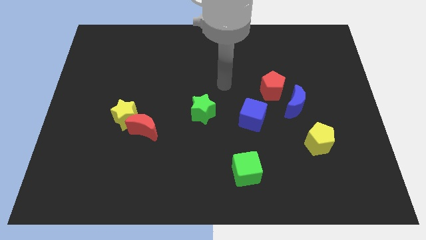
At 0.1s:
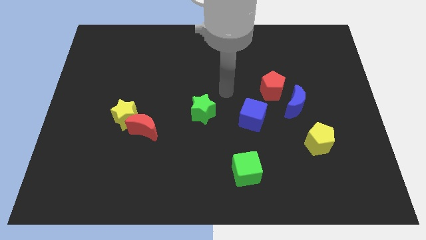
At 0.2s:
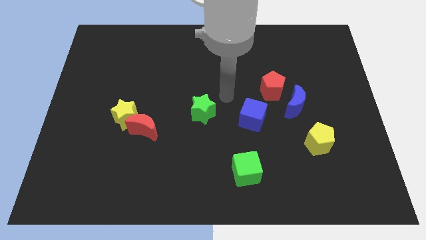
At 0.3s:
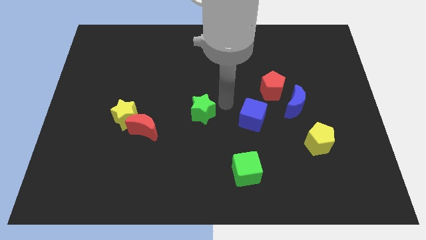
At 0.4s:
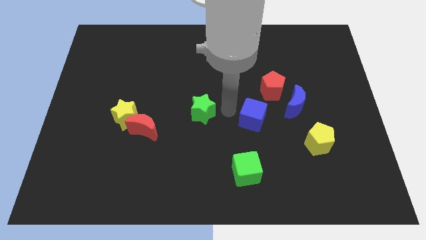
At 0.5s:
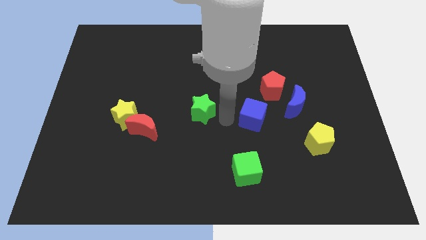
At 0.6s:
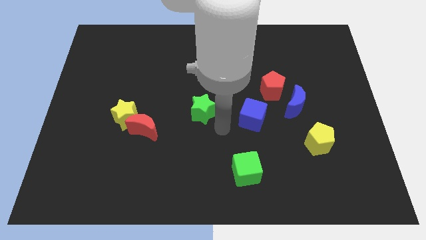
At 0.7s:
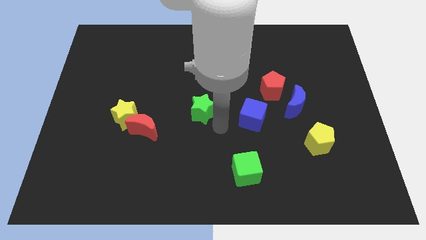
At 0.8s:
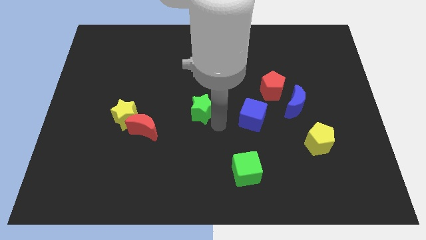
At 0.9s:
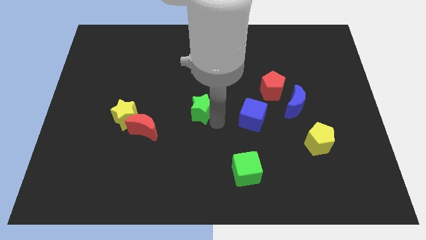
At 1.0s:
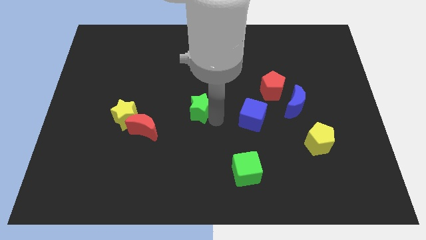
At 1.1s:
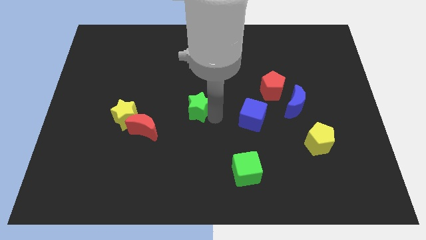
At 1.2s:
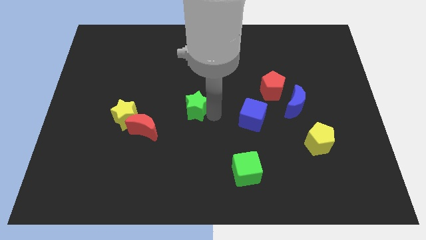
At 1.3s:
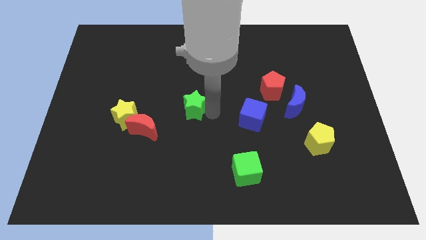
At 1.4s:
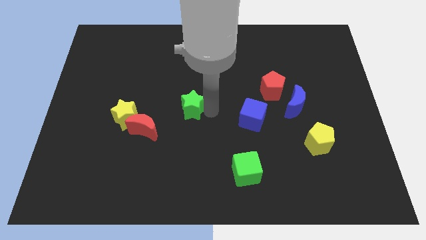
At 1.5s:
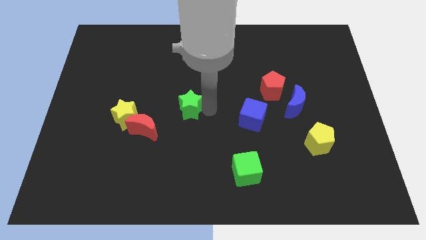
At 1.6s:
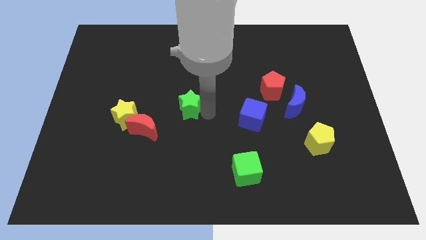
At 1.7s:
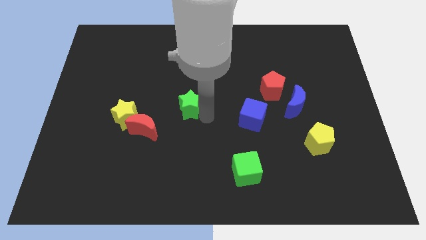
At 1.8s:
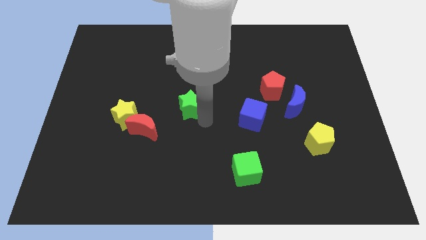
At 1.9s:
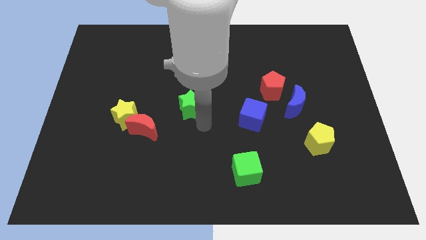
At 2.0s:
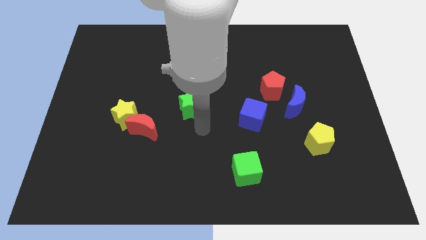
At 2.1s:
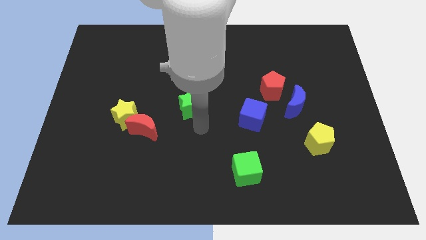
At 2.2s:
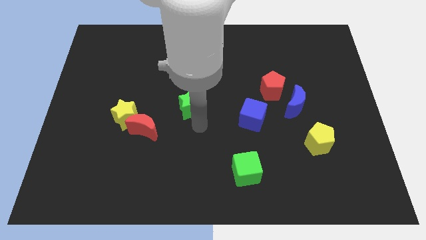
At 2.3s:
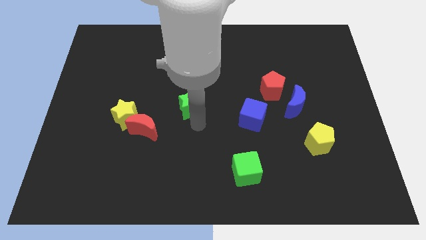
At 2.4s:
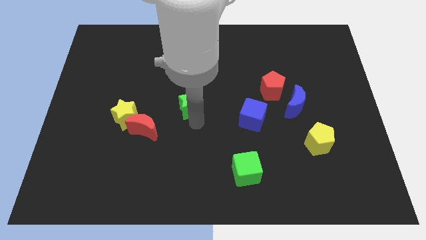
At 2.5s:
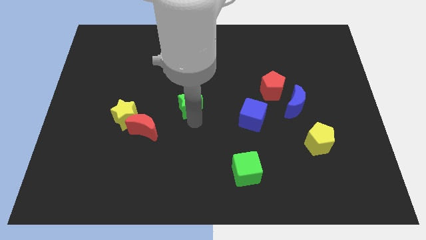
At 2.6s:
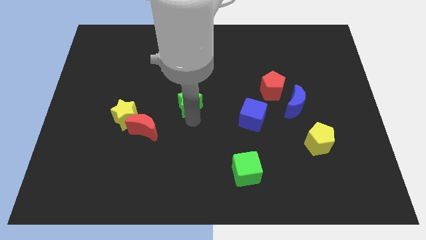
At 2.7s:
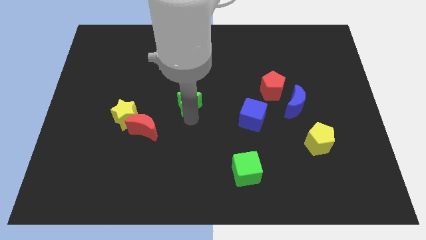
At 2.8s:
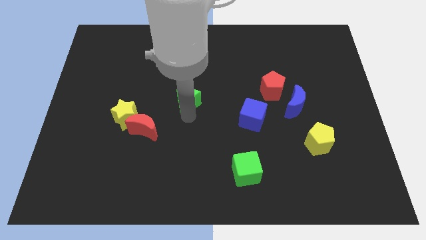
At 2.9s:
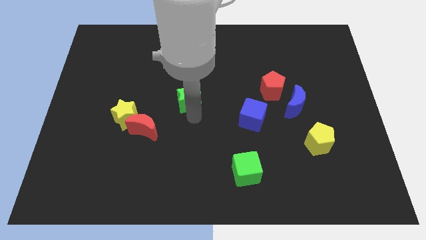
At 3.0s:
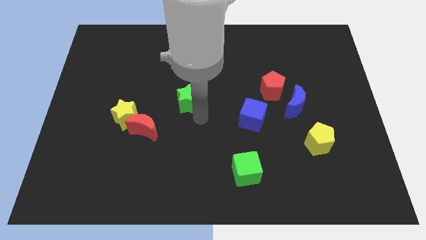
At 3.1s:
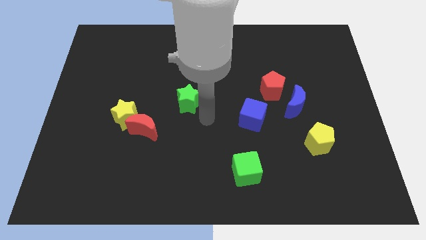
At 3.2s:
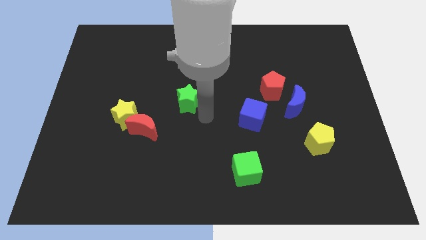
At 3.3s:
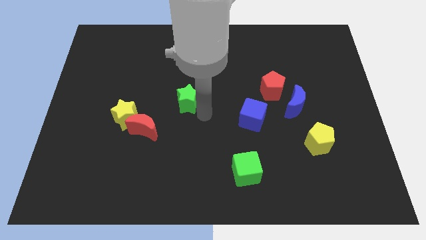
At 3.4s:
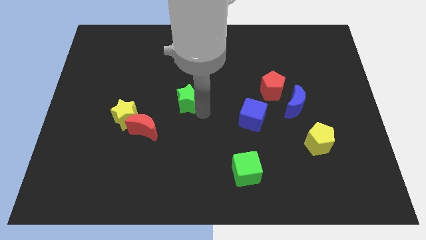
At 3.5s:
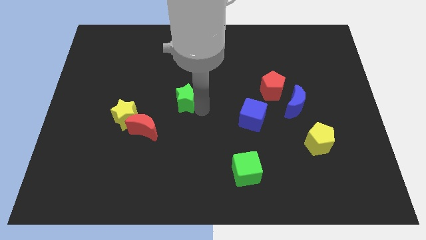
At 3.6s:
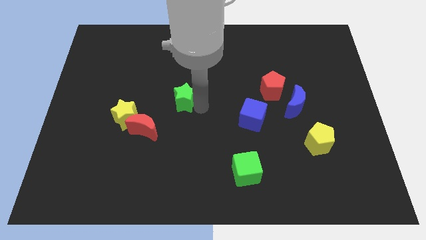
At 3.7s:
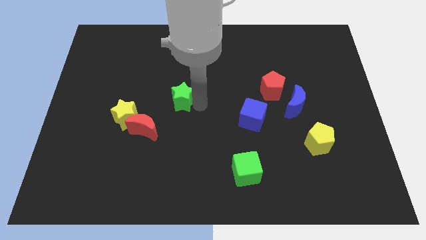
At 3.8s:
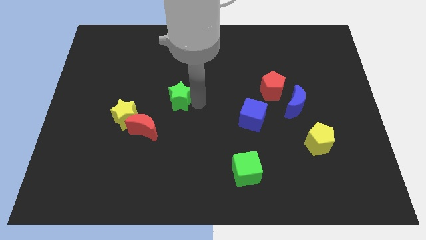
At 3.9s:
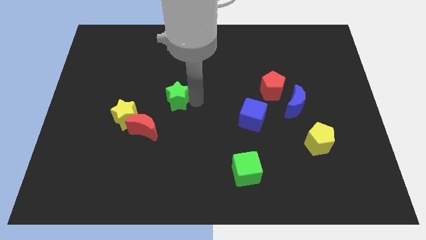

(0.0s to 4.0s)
slightly slide the green star up and left diagonally

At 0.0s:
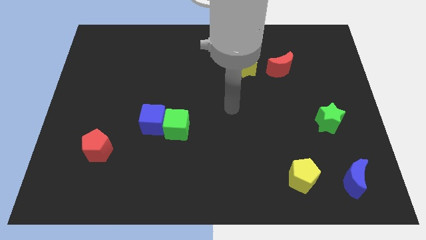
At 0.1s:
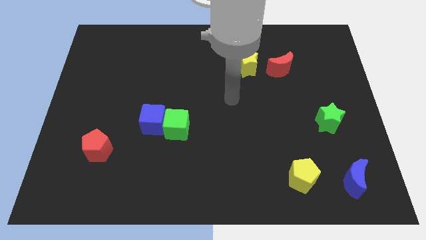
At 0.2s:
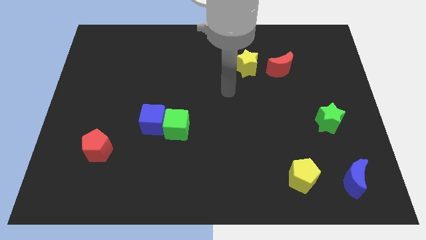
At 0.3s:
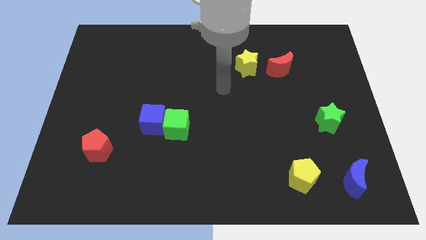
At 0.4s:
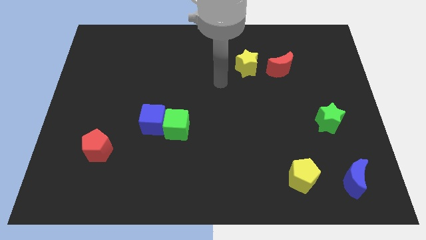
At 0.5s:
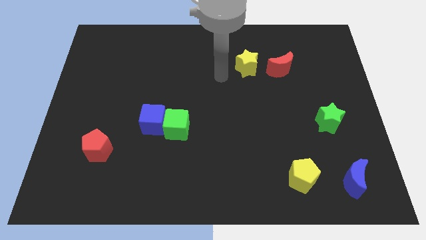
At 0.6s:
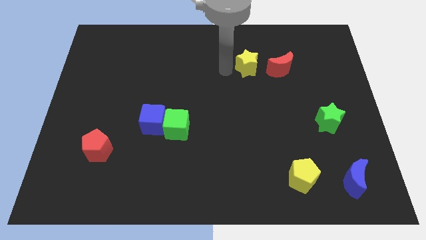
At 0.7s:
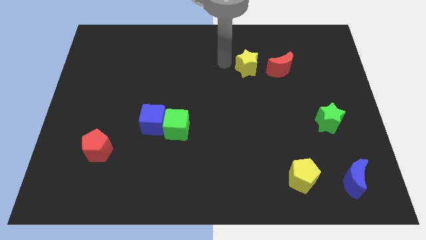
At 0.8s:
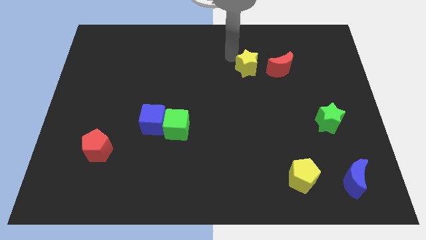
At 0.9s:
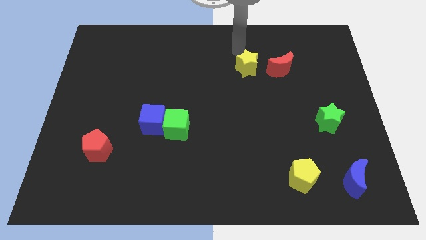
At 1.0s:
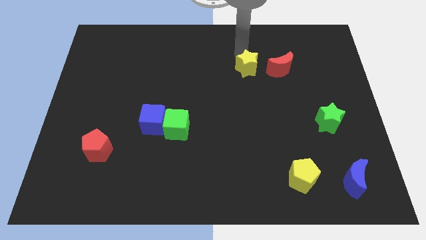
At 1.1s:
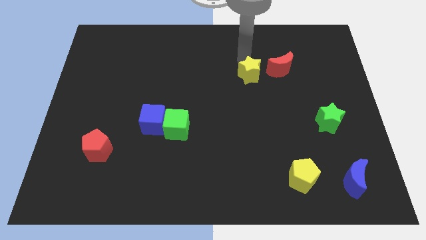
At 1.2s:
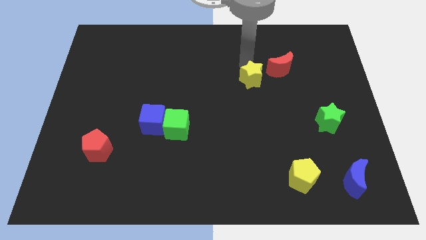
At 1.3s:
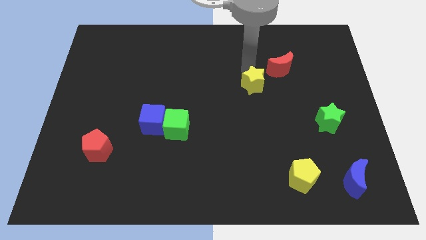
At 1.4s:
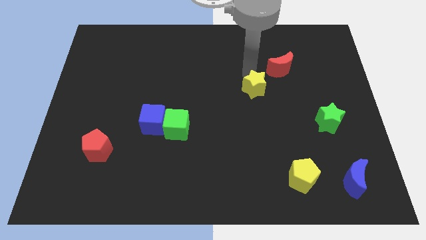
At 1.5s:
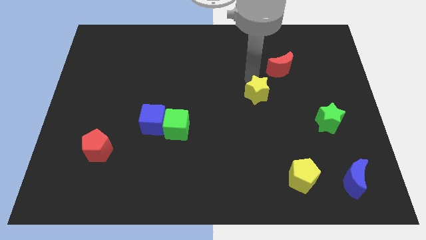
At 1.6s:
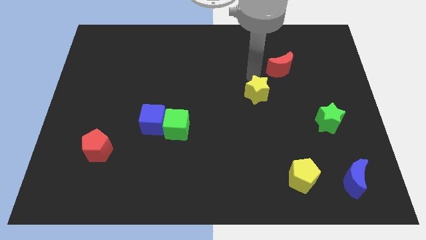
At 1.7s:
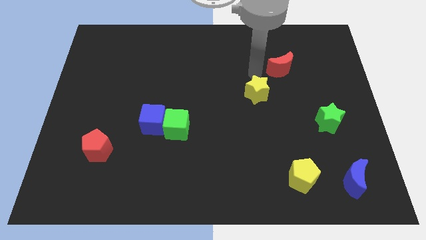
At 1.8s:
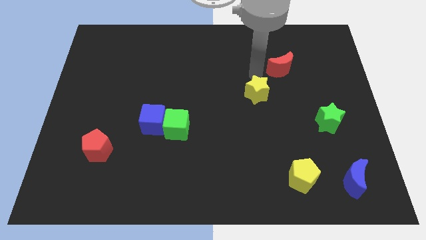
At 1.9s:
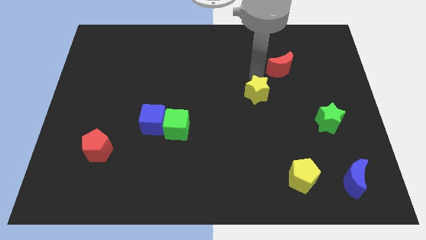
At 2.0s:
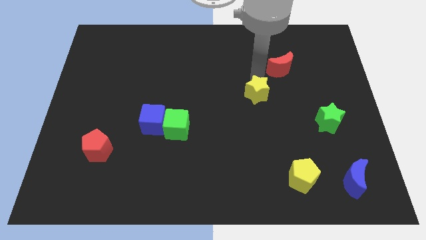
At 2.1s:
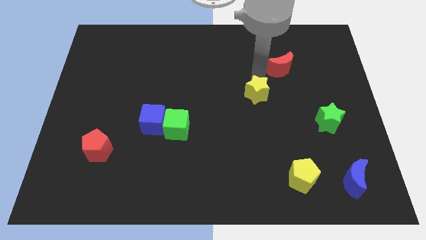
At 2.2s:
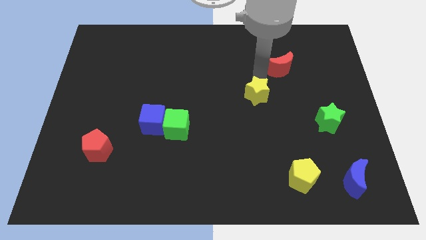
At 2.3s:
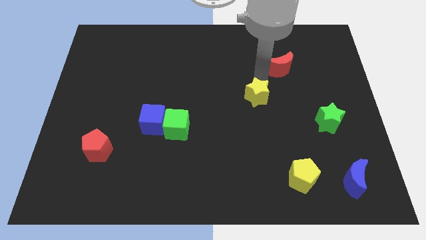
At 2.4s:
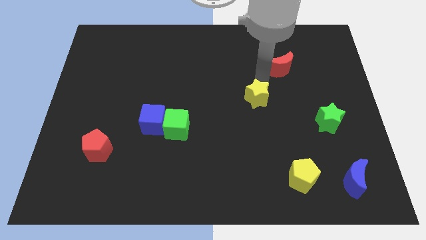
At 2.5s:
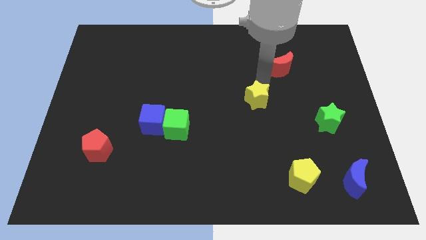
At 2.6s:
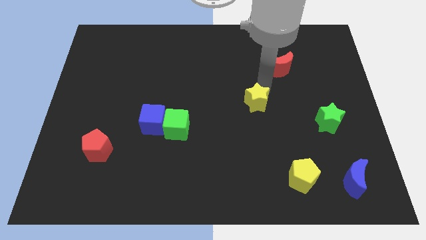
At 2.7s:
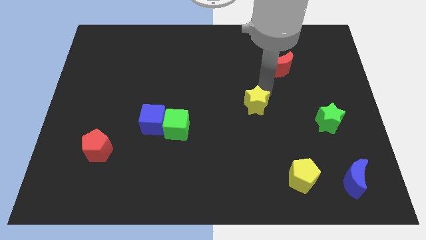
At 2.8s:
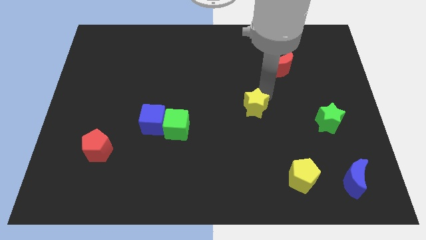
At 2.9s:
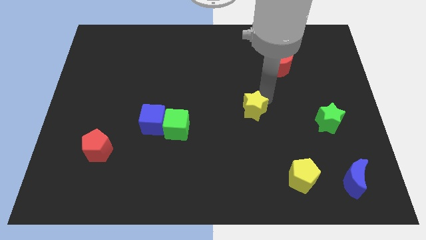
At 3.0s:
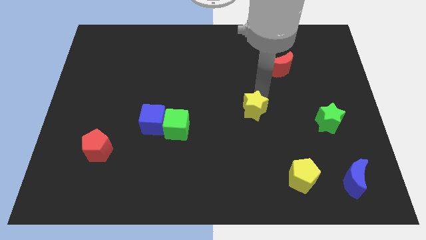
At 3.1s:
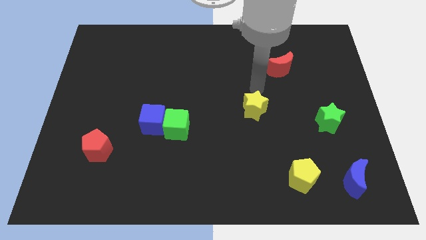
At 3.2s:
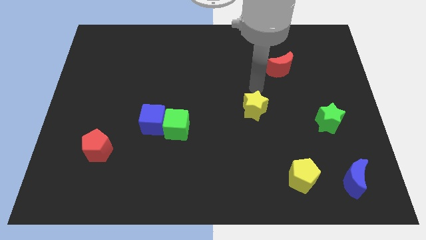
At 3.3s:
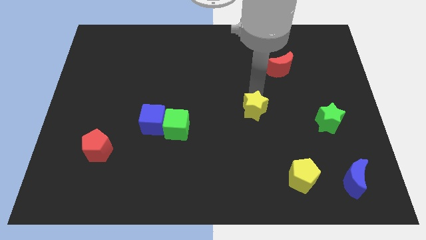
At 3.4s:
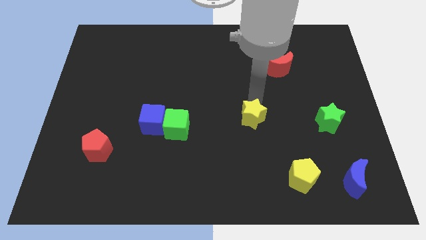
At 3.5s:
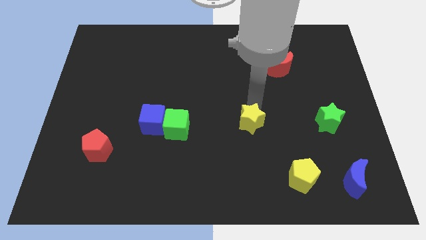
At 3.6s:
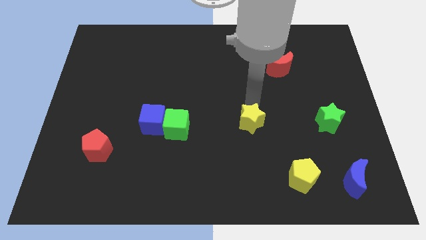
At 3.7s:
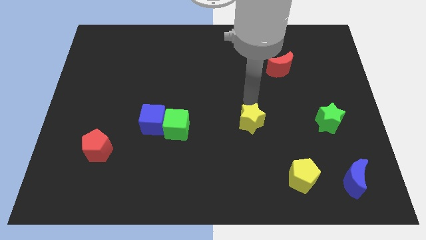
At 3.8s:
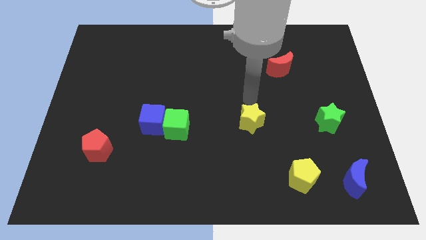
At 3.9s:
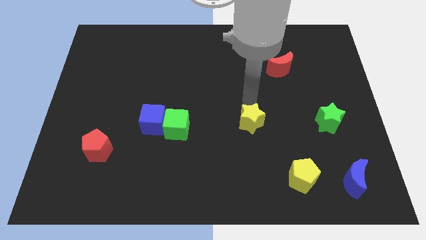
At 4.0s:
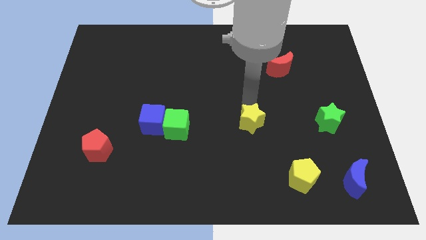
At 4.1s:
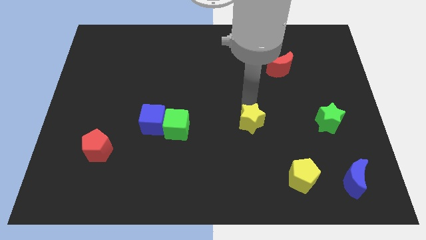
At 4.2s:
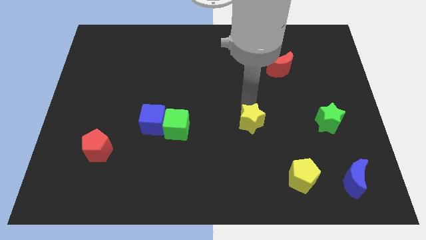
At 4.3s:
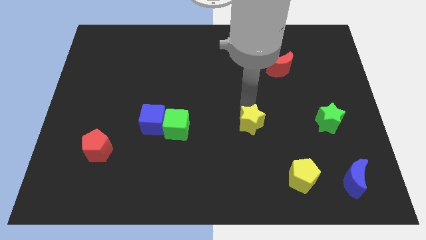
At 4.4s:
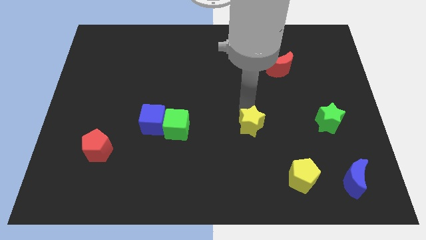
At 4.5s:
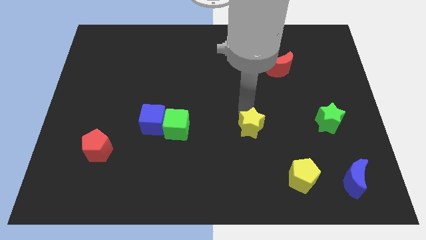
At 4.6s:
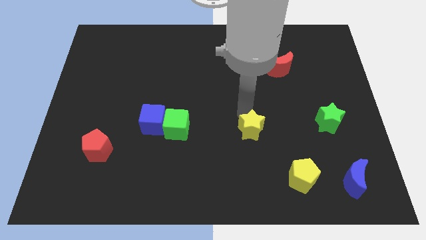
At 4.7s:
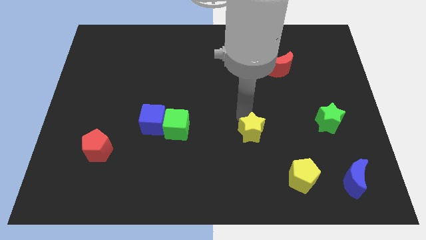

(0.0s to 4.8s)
move the yellow star downwards
